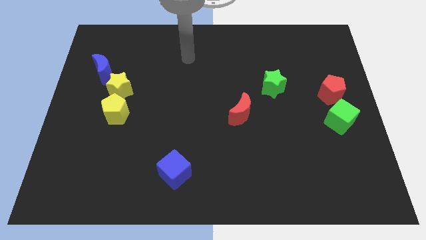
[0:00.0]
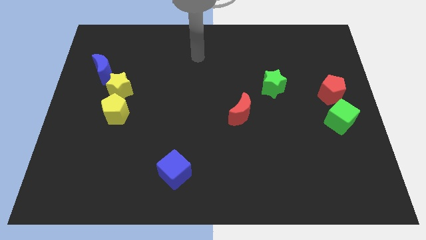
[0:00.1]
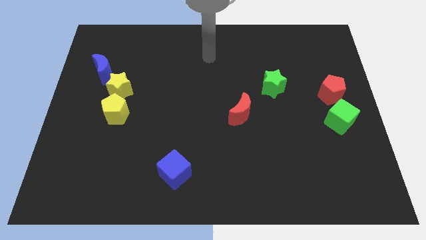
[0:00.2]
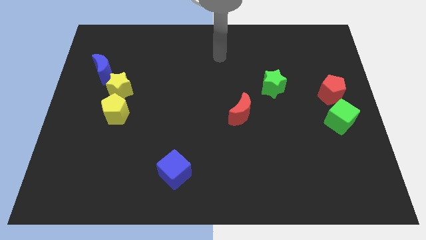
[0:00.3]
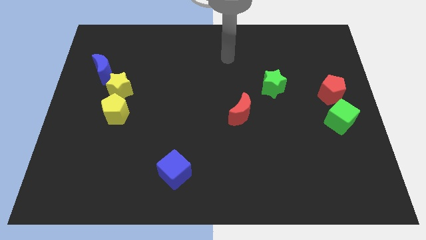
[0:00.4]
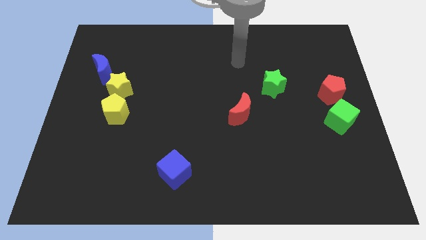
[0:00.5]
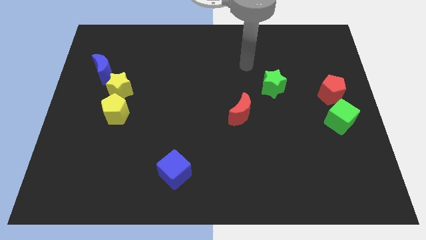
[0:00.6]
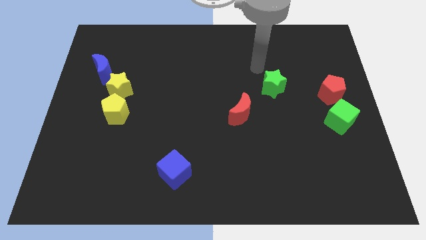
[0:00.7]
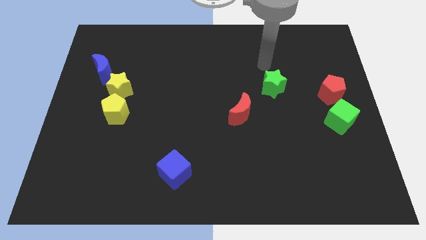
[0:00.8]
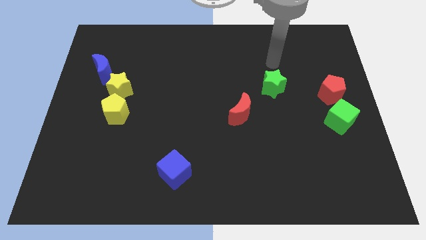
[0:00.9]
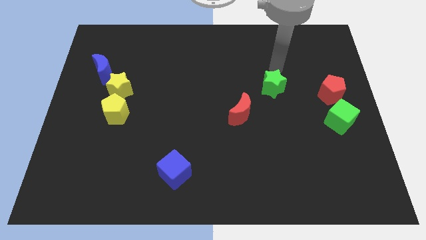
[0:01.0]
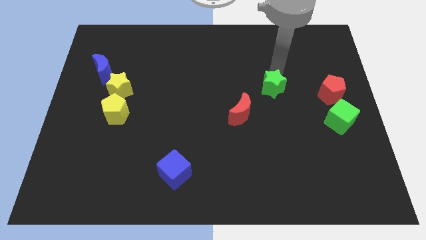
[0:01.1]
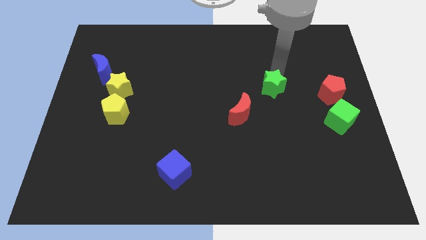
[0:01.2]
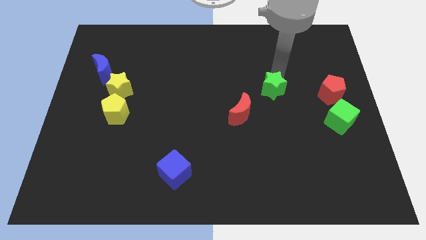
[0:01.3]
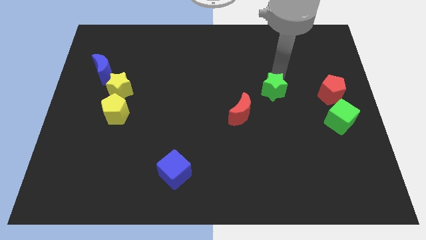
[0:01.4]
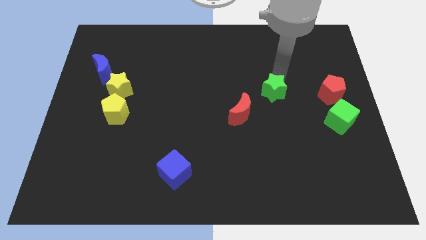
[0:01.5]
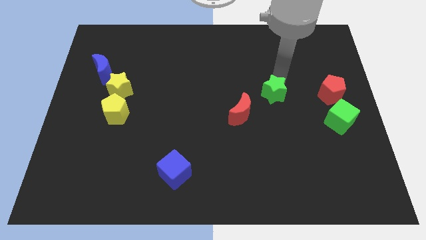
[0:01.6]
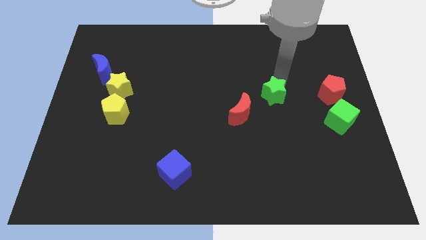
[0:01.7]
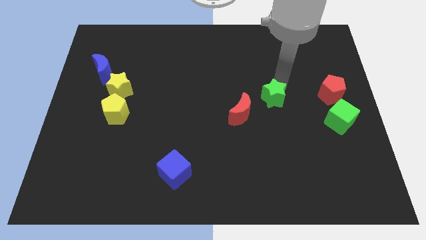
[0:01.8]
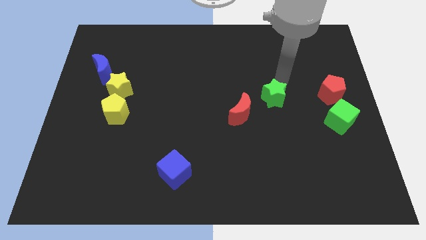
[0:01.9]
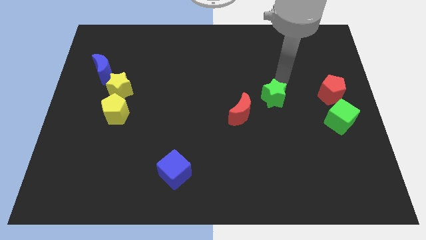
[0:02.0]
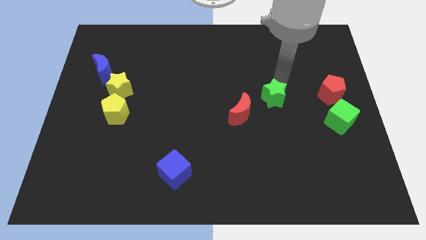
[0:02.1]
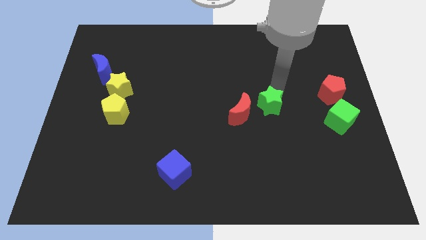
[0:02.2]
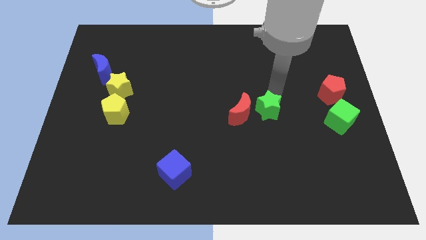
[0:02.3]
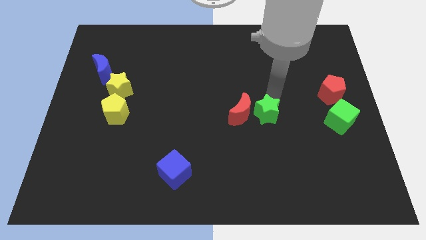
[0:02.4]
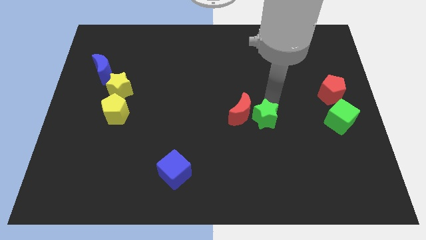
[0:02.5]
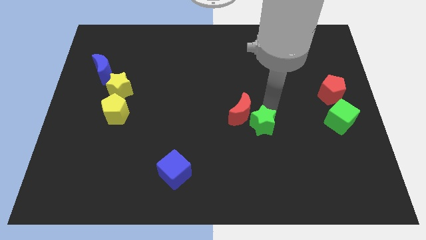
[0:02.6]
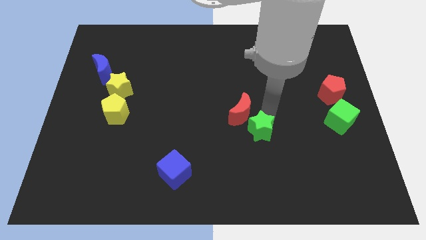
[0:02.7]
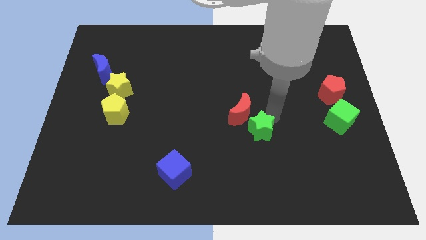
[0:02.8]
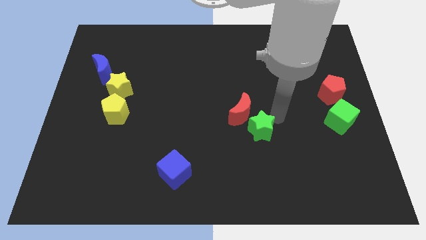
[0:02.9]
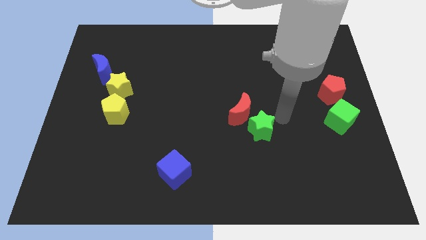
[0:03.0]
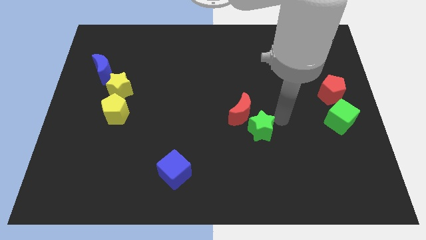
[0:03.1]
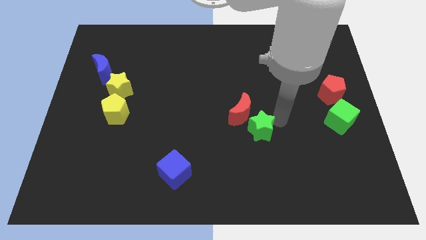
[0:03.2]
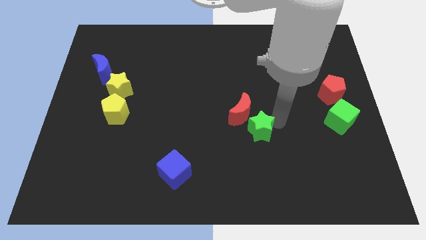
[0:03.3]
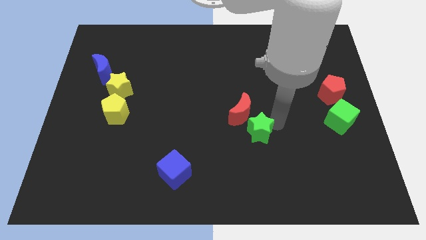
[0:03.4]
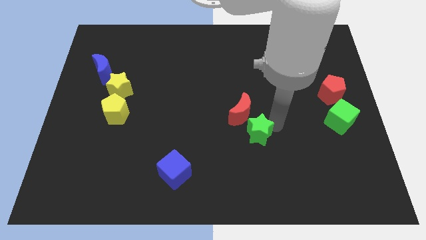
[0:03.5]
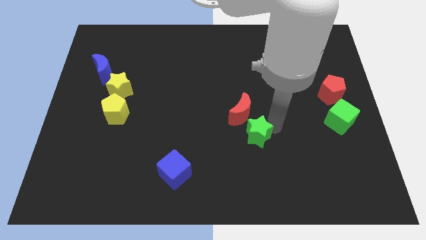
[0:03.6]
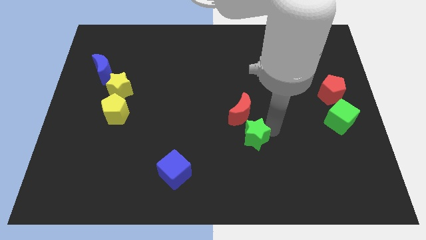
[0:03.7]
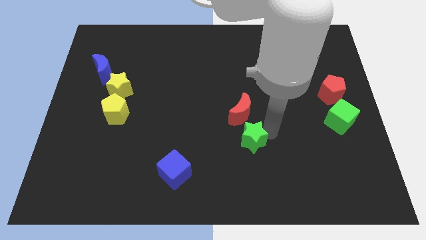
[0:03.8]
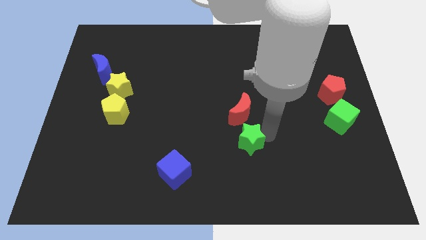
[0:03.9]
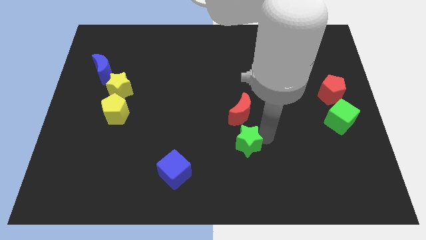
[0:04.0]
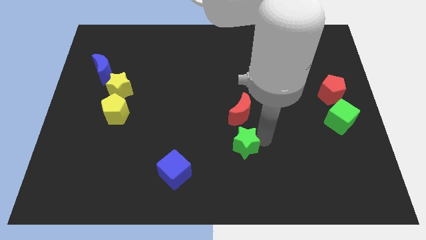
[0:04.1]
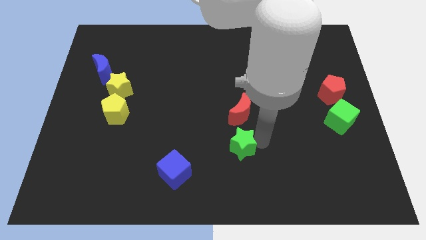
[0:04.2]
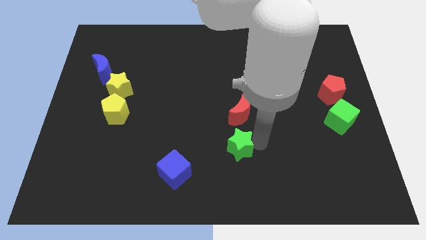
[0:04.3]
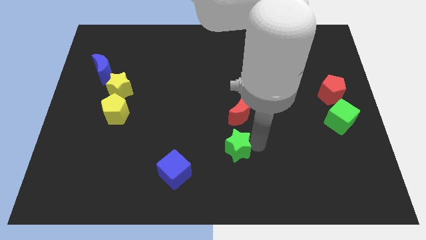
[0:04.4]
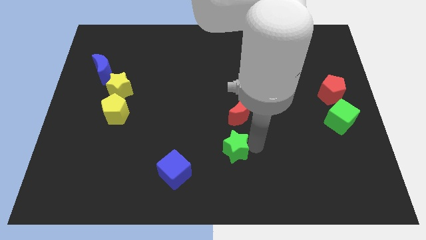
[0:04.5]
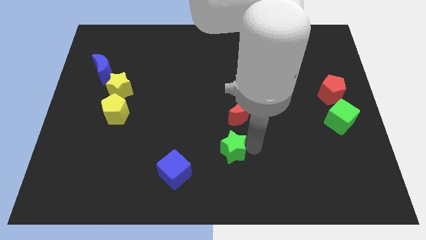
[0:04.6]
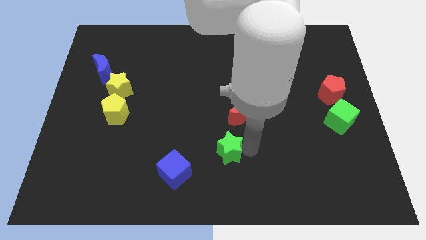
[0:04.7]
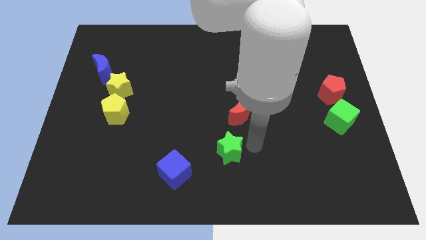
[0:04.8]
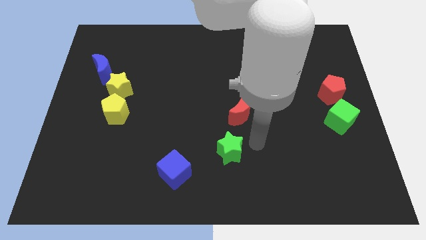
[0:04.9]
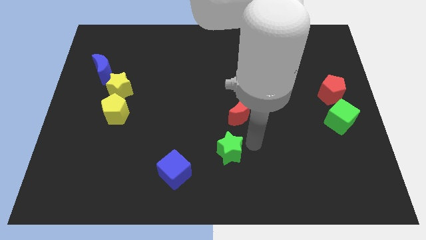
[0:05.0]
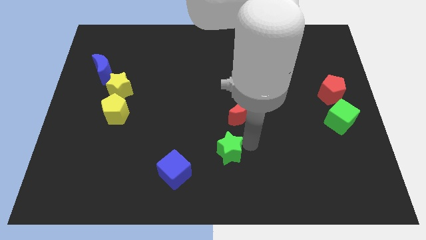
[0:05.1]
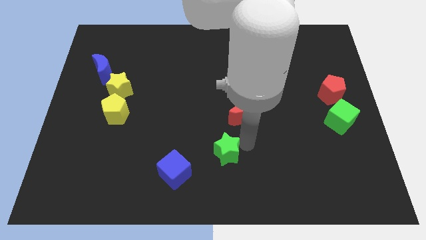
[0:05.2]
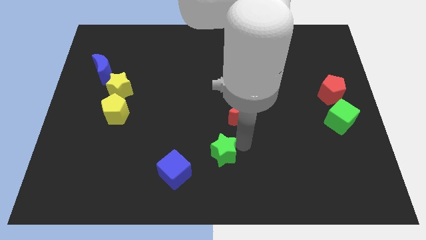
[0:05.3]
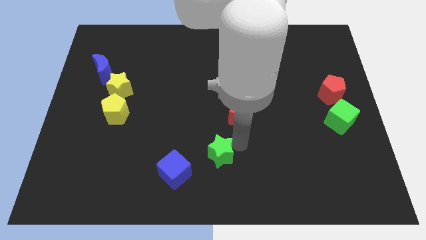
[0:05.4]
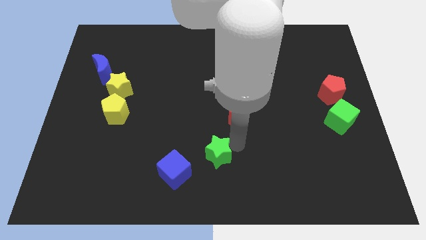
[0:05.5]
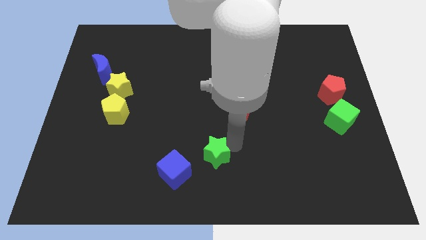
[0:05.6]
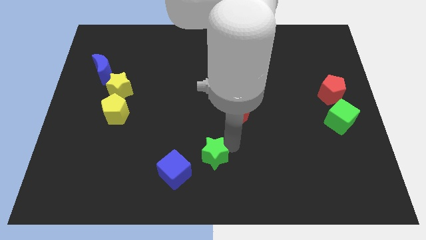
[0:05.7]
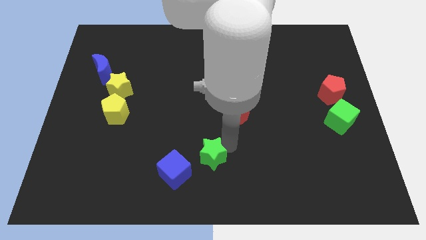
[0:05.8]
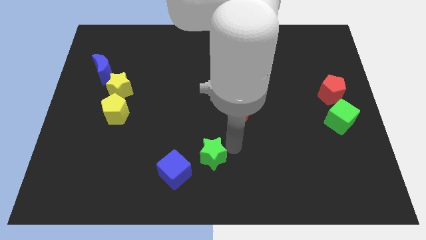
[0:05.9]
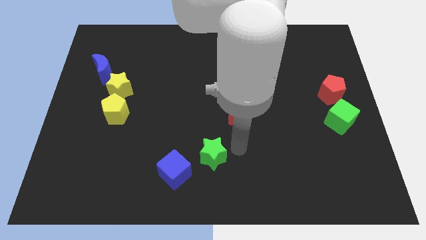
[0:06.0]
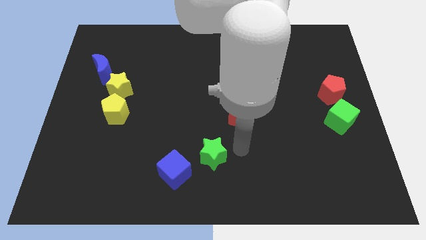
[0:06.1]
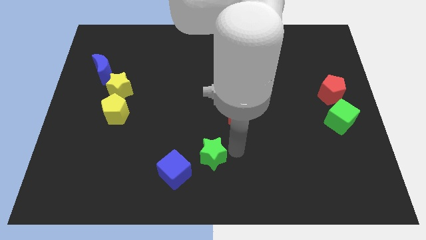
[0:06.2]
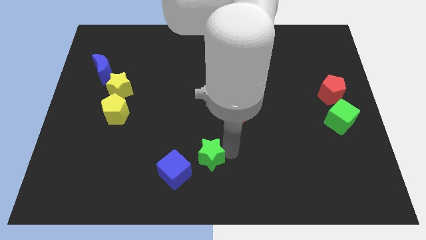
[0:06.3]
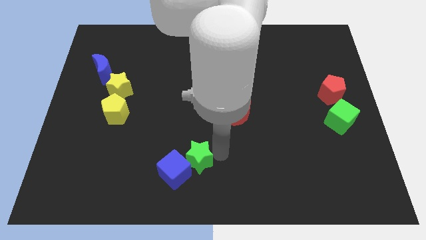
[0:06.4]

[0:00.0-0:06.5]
move the green star towards the blue cube
